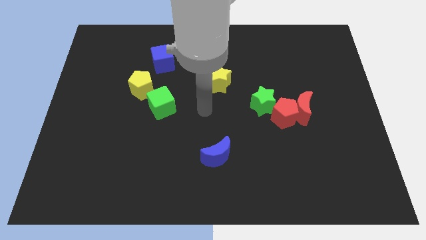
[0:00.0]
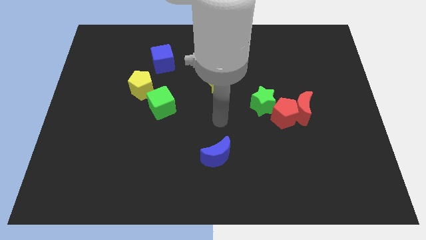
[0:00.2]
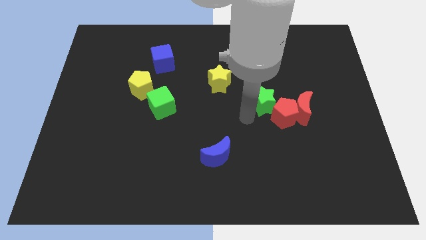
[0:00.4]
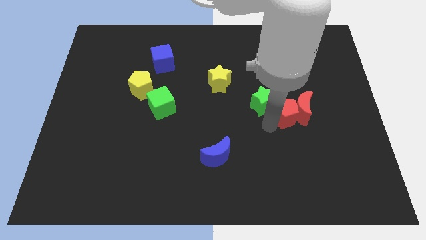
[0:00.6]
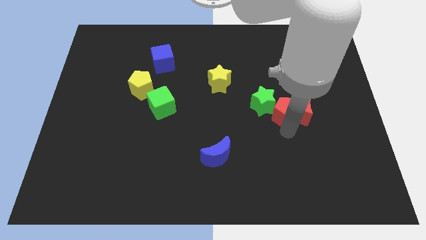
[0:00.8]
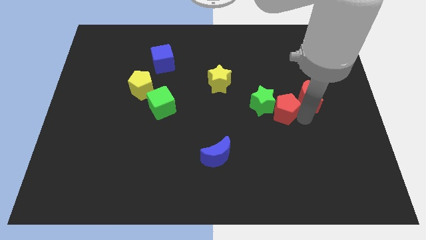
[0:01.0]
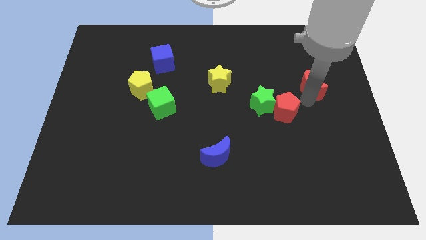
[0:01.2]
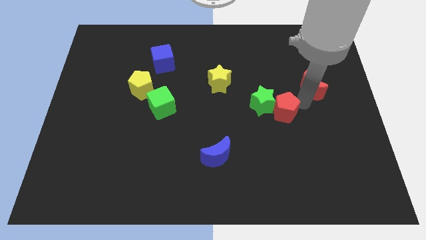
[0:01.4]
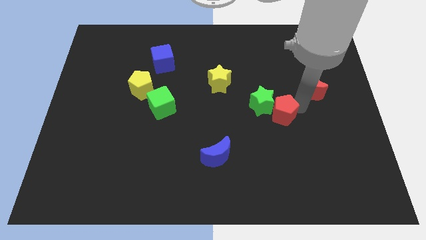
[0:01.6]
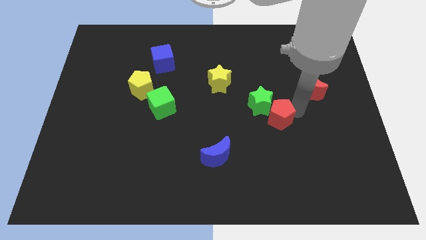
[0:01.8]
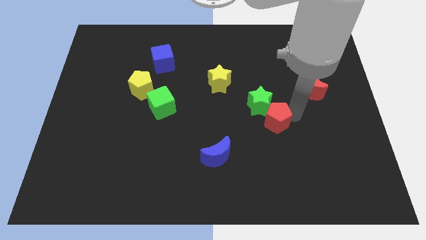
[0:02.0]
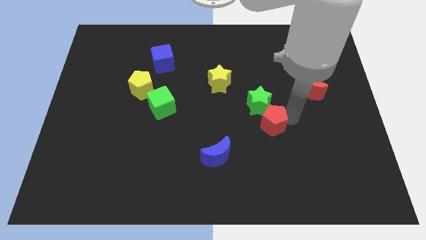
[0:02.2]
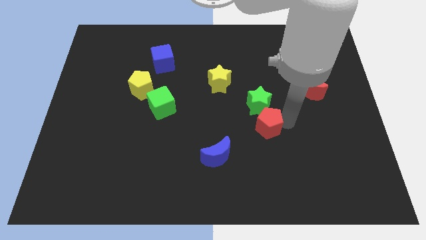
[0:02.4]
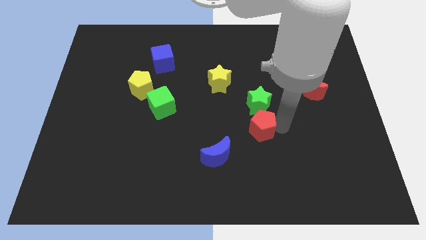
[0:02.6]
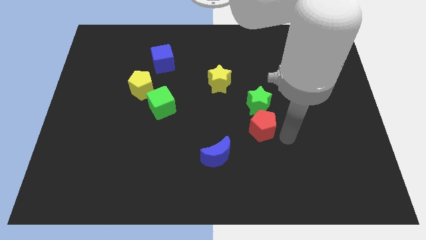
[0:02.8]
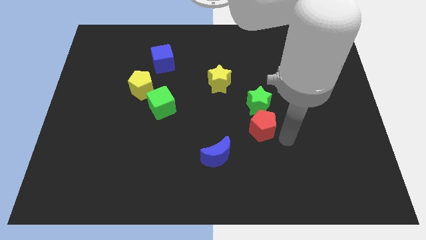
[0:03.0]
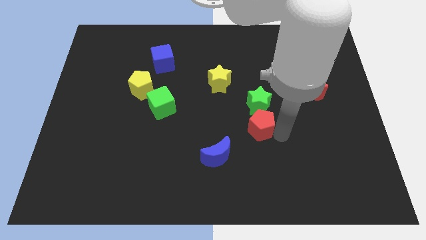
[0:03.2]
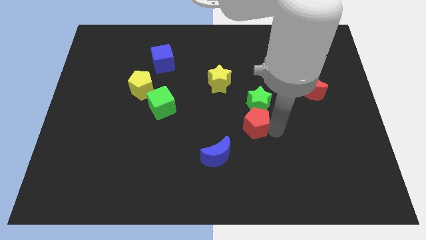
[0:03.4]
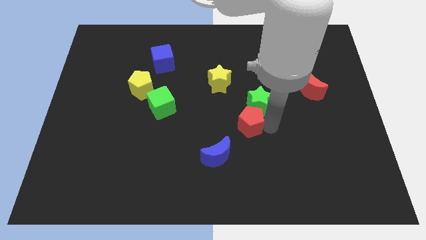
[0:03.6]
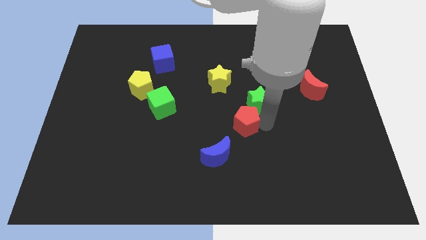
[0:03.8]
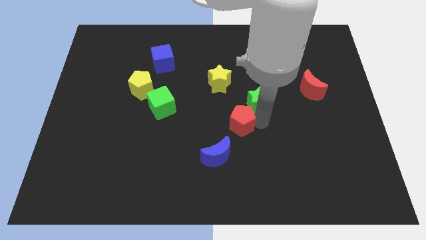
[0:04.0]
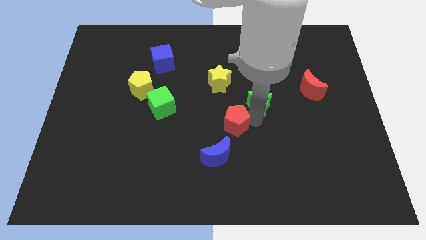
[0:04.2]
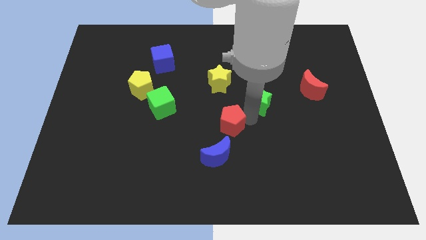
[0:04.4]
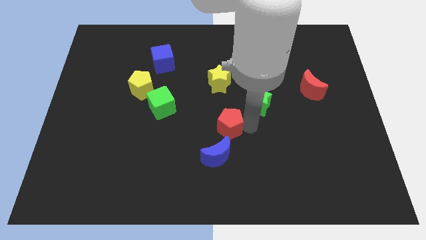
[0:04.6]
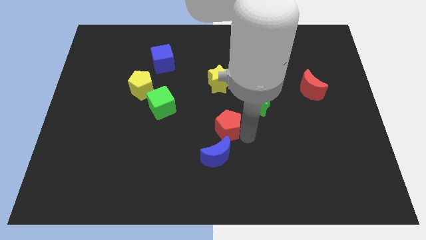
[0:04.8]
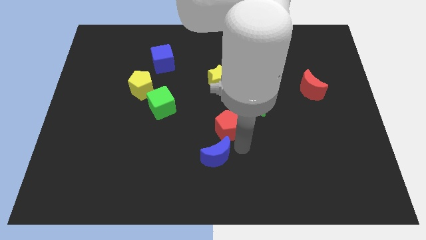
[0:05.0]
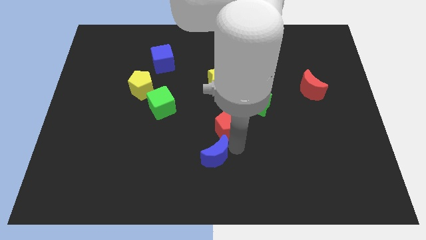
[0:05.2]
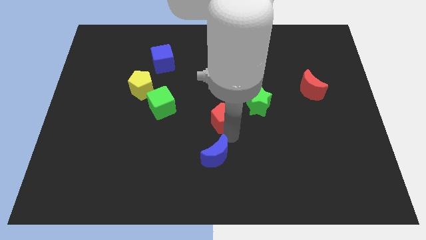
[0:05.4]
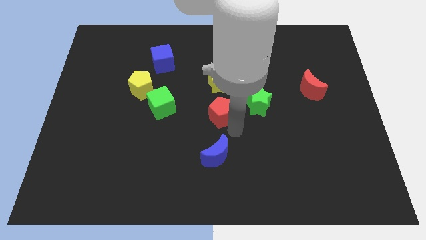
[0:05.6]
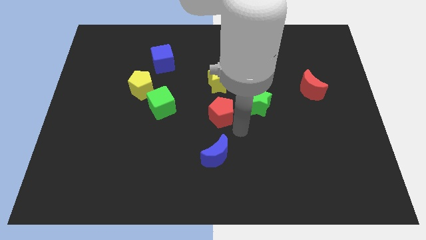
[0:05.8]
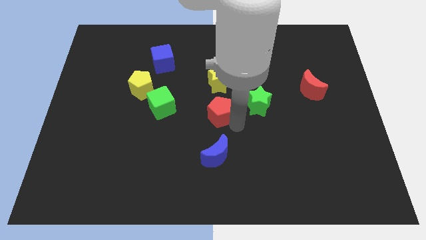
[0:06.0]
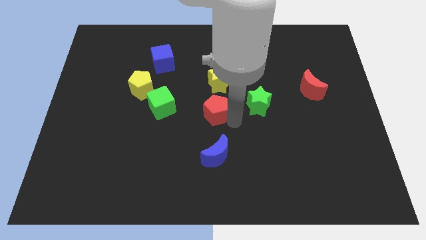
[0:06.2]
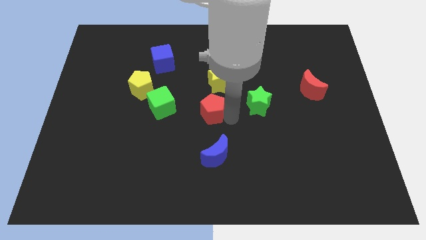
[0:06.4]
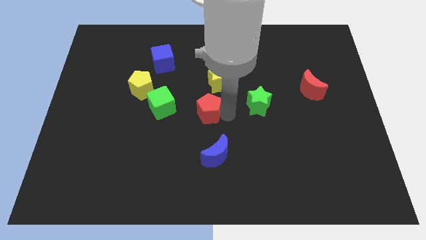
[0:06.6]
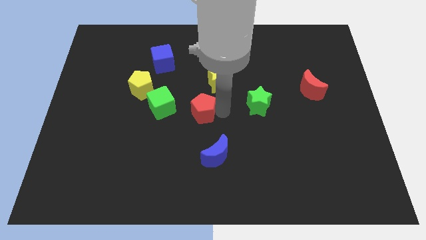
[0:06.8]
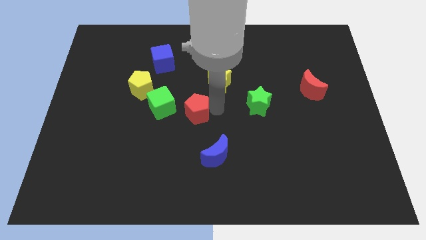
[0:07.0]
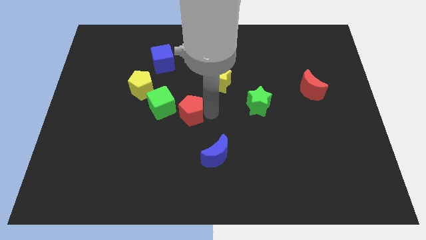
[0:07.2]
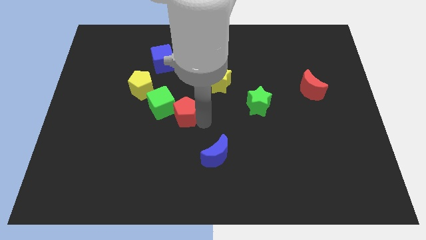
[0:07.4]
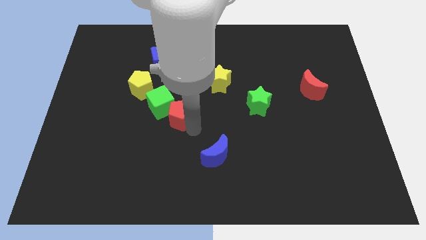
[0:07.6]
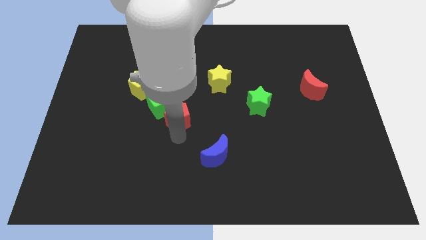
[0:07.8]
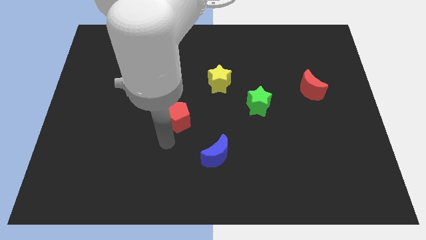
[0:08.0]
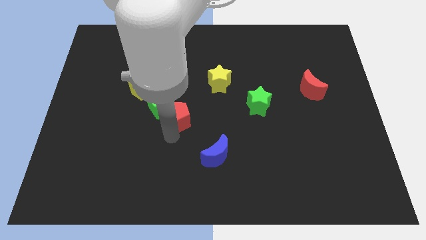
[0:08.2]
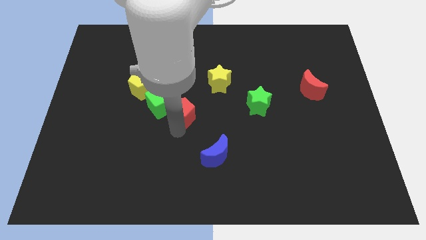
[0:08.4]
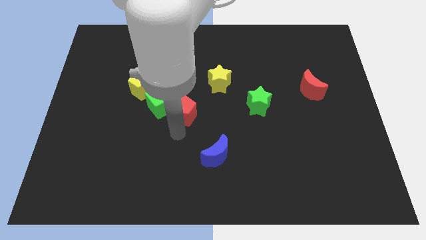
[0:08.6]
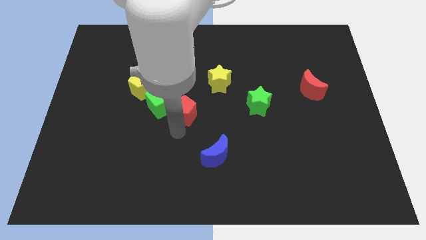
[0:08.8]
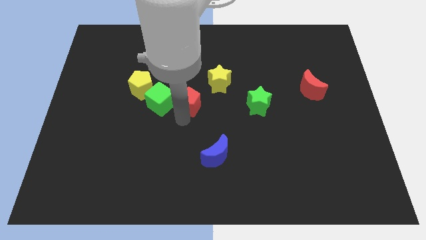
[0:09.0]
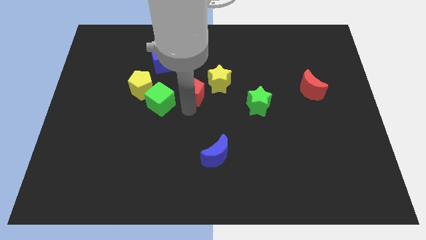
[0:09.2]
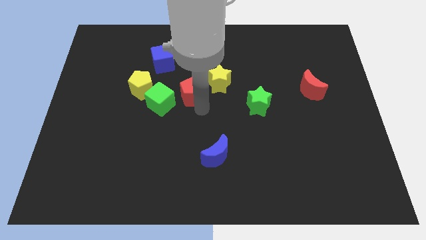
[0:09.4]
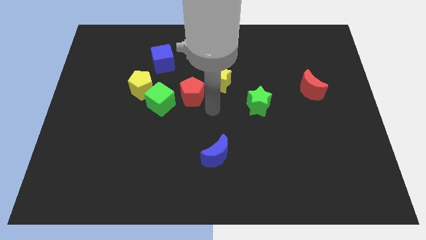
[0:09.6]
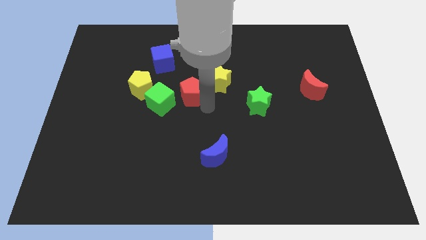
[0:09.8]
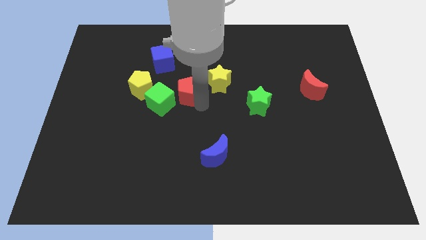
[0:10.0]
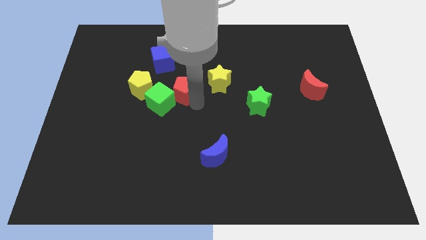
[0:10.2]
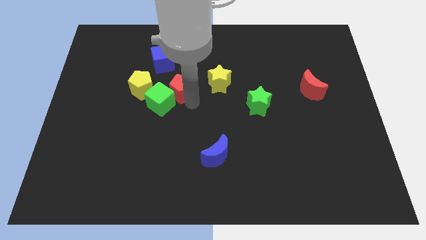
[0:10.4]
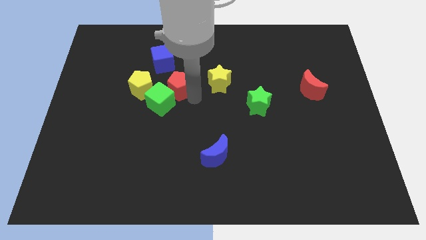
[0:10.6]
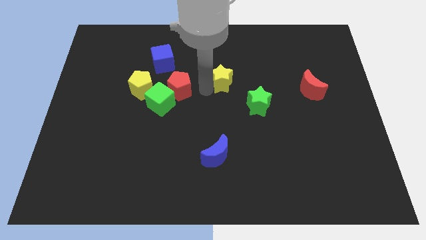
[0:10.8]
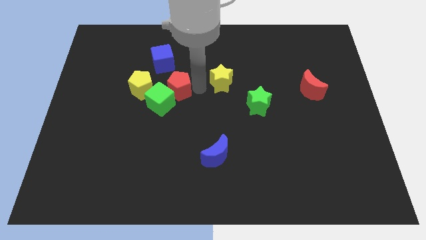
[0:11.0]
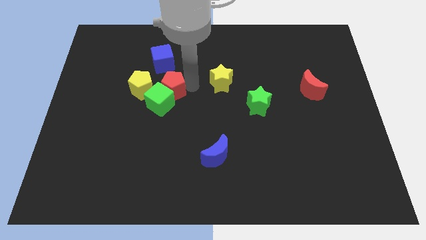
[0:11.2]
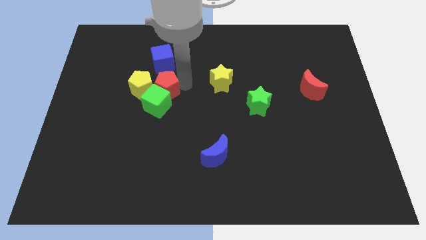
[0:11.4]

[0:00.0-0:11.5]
slide the red pentagon close to the yellow pentagon

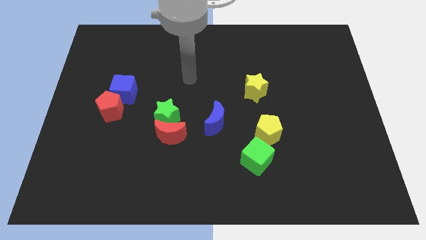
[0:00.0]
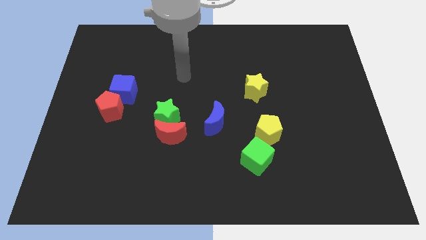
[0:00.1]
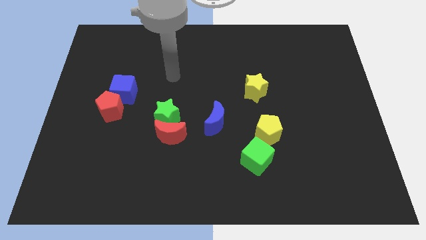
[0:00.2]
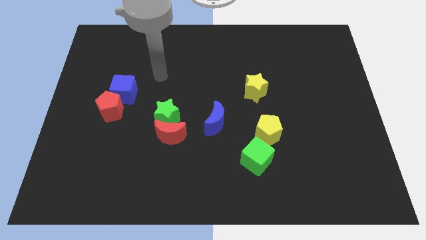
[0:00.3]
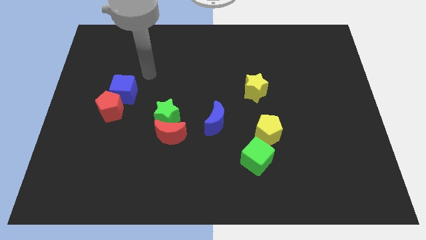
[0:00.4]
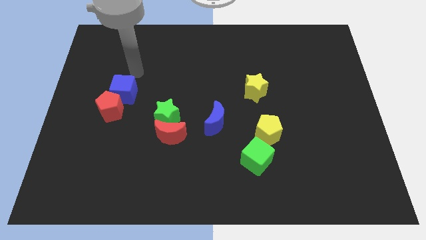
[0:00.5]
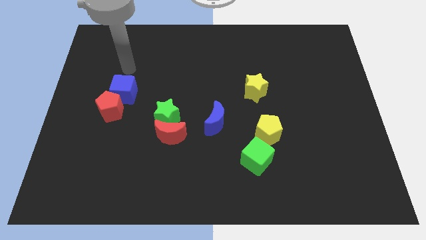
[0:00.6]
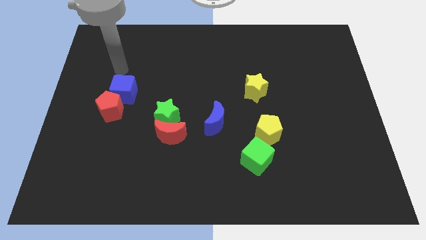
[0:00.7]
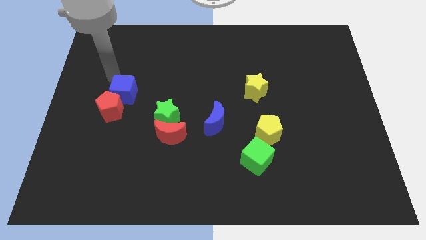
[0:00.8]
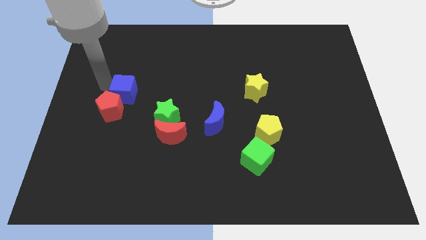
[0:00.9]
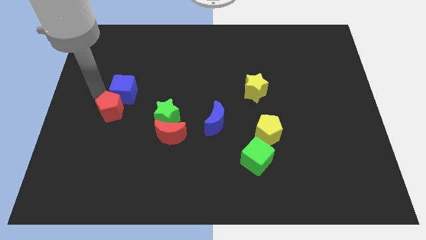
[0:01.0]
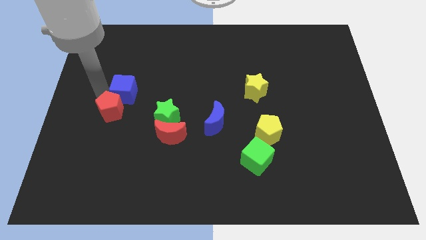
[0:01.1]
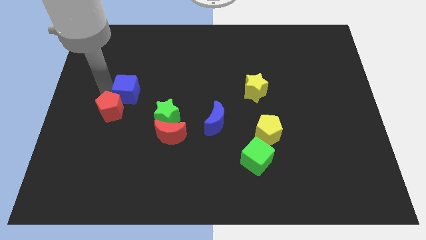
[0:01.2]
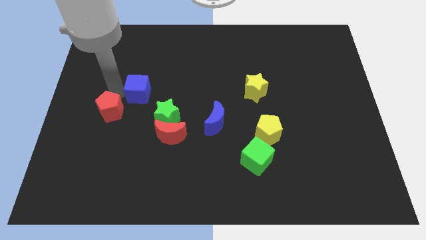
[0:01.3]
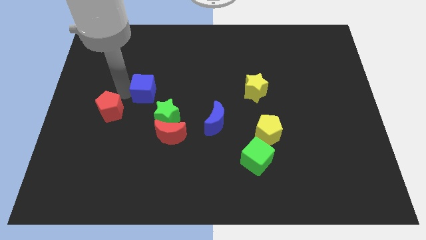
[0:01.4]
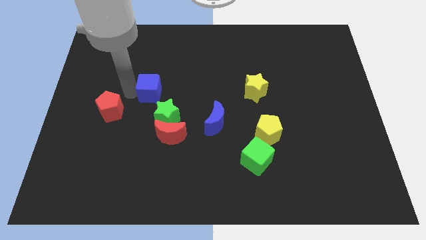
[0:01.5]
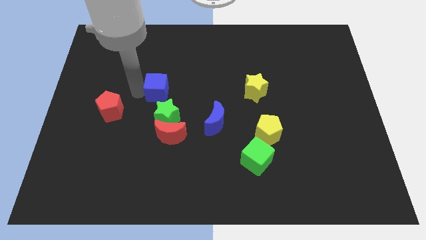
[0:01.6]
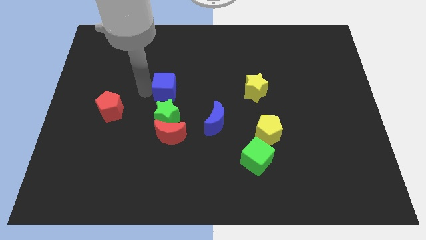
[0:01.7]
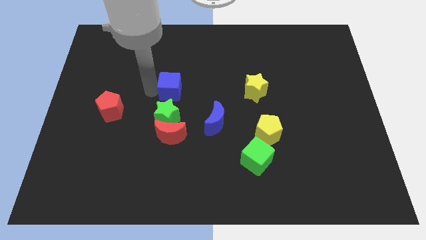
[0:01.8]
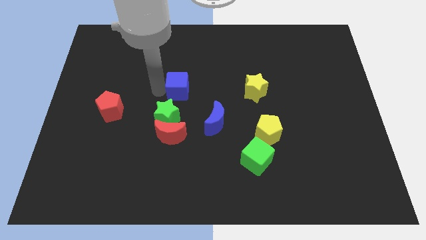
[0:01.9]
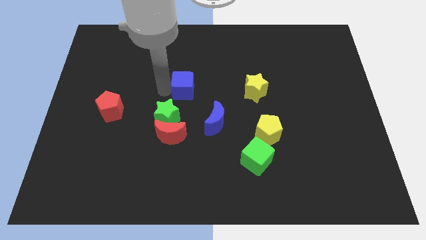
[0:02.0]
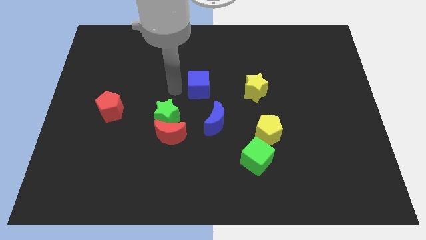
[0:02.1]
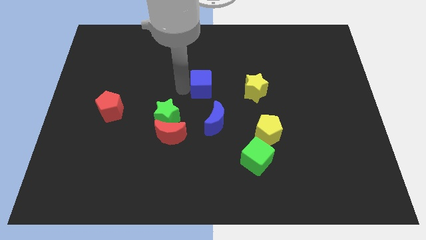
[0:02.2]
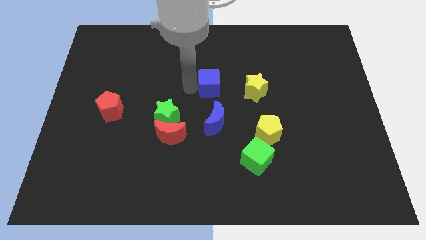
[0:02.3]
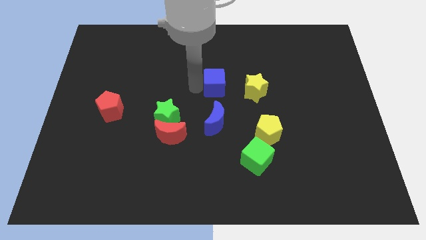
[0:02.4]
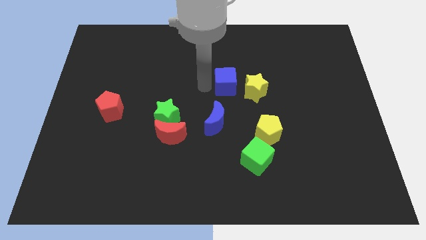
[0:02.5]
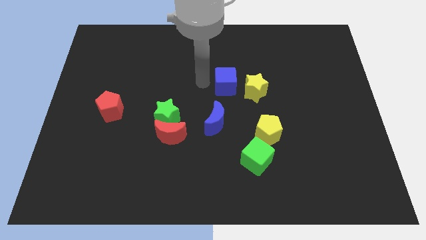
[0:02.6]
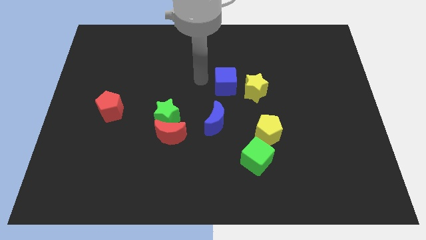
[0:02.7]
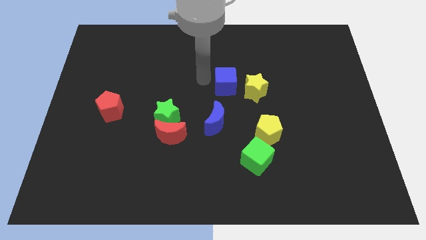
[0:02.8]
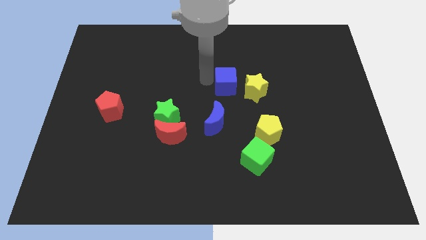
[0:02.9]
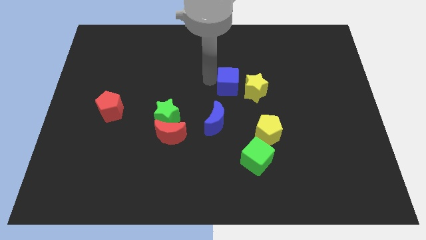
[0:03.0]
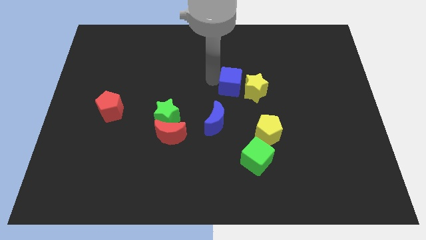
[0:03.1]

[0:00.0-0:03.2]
slide the blue cube next to the yellow star
